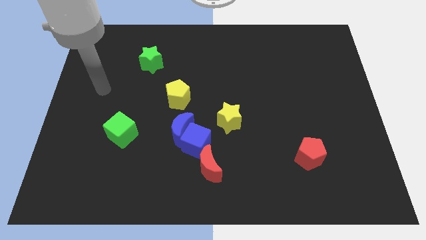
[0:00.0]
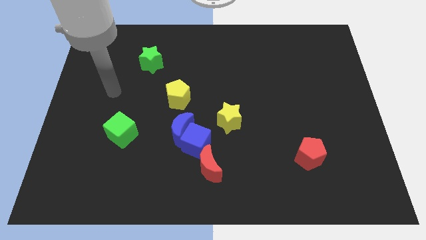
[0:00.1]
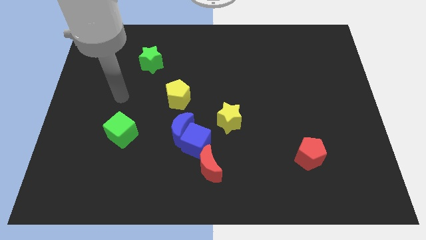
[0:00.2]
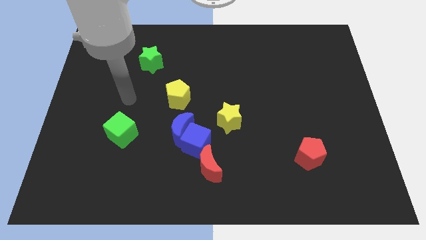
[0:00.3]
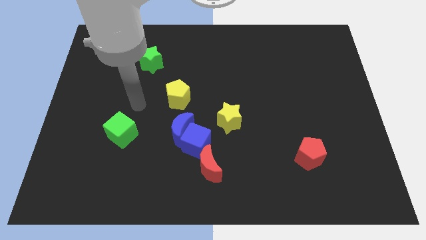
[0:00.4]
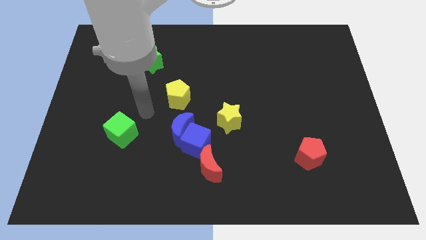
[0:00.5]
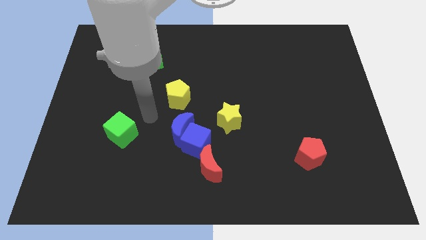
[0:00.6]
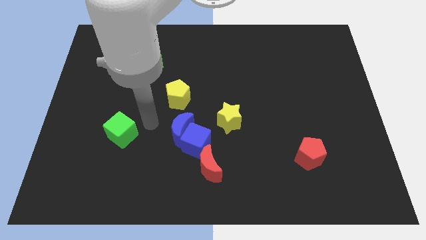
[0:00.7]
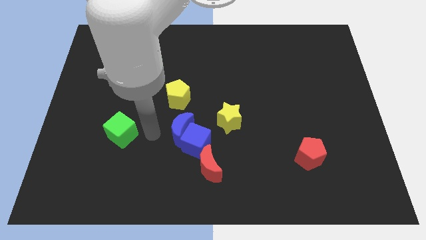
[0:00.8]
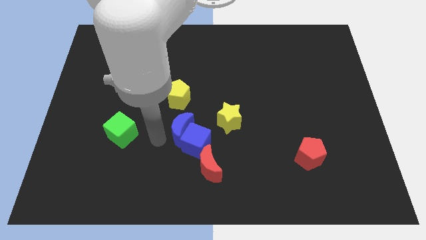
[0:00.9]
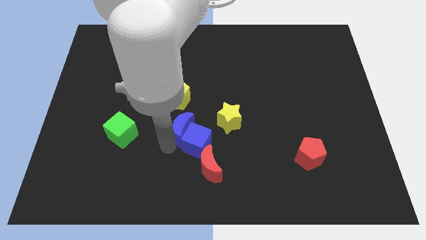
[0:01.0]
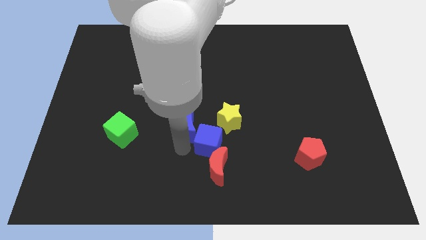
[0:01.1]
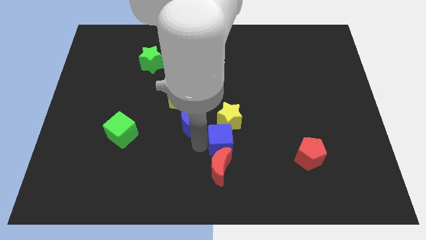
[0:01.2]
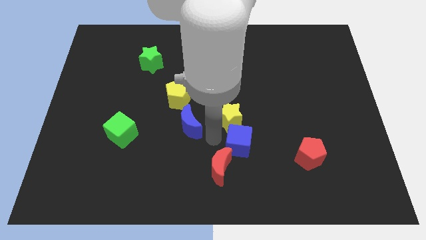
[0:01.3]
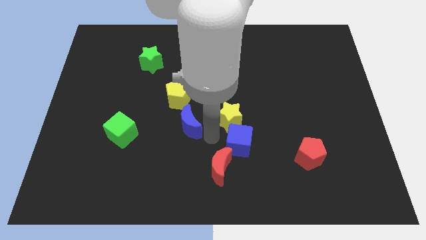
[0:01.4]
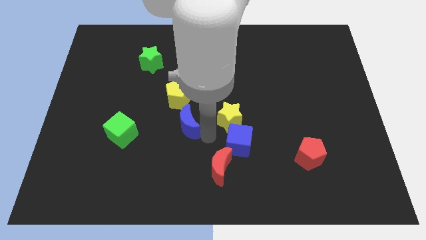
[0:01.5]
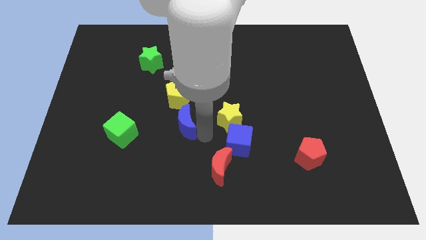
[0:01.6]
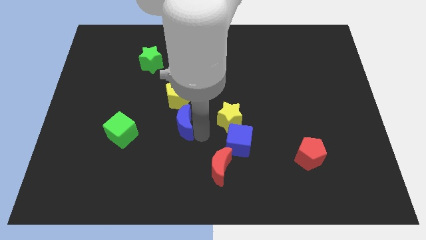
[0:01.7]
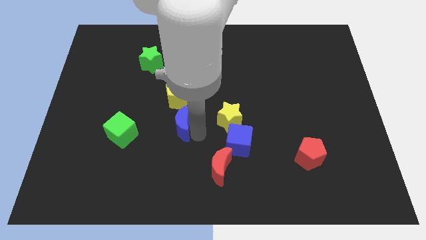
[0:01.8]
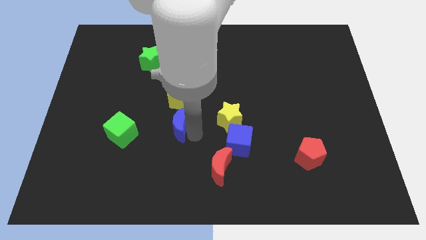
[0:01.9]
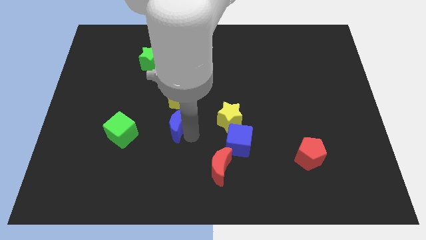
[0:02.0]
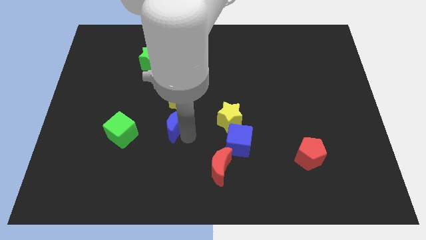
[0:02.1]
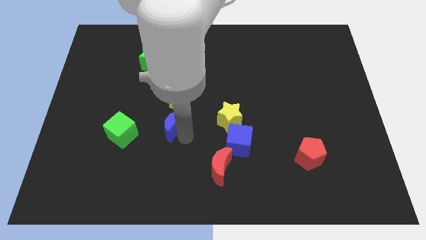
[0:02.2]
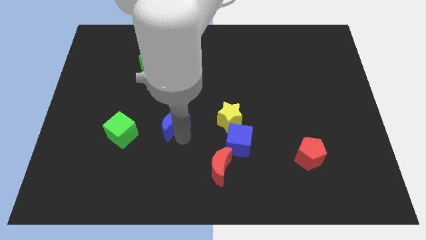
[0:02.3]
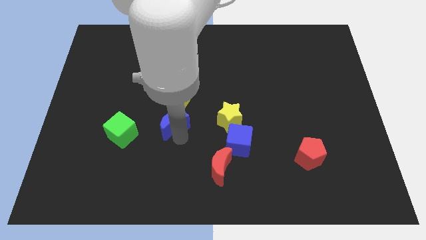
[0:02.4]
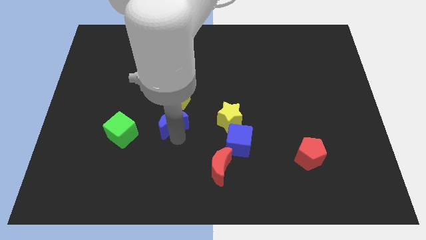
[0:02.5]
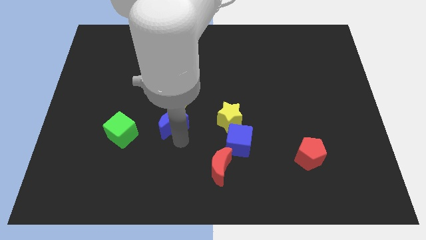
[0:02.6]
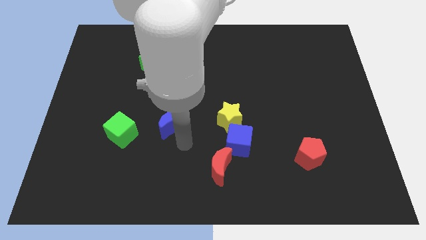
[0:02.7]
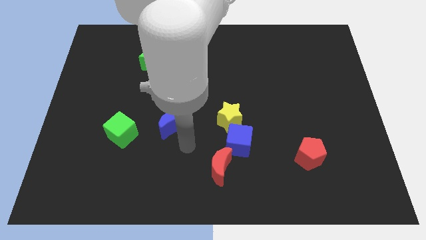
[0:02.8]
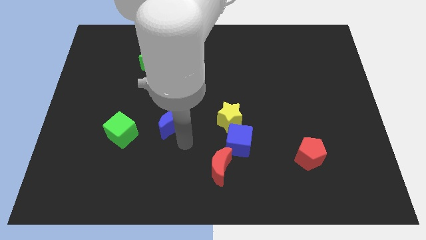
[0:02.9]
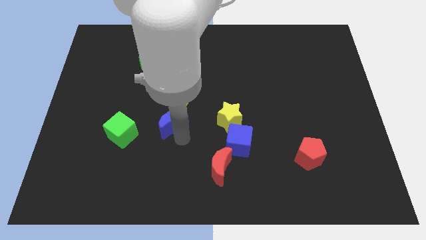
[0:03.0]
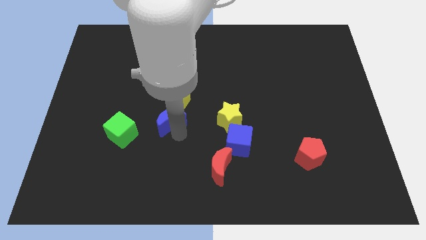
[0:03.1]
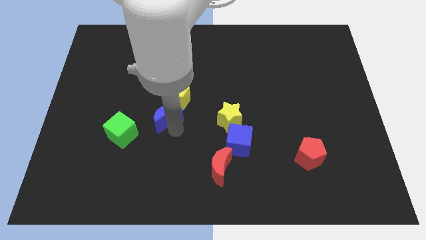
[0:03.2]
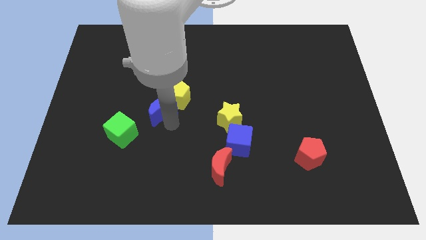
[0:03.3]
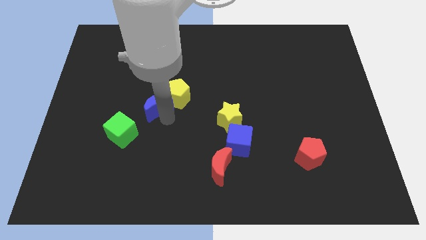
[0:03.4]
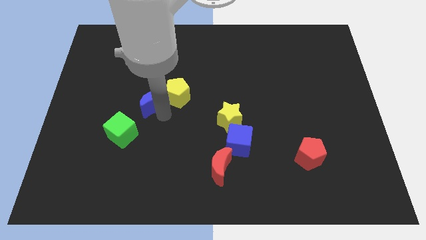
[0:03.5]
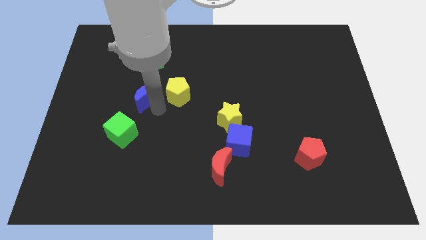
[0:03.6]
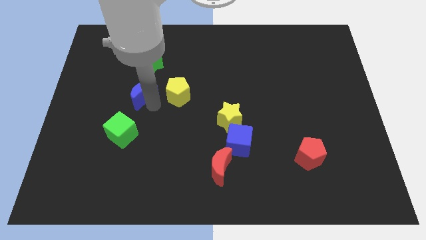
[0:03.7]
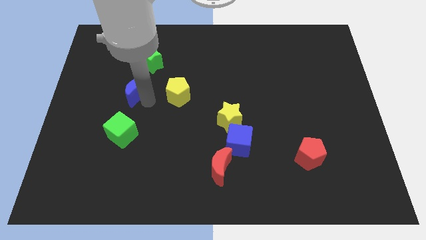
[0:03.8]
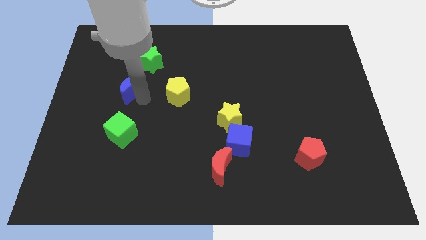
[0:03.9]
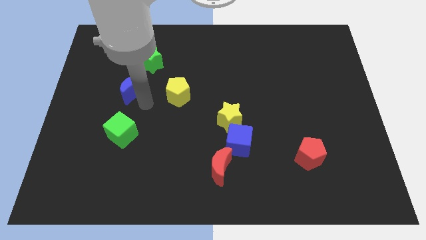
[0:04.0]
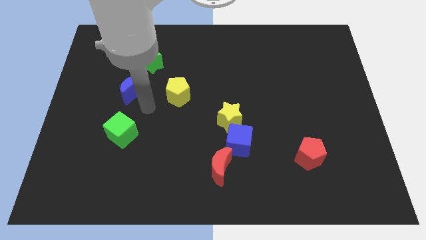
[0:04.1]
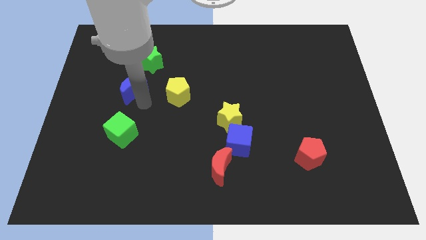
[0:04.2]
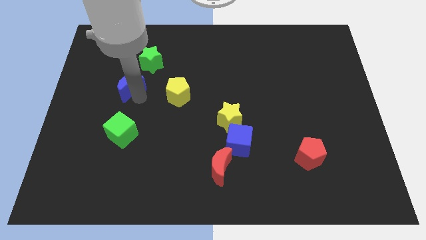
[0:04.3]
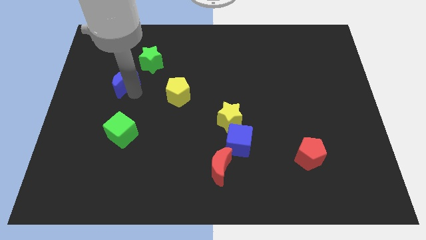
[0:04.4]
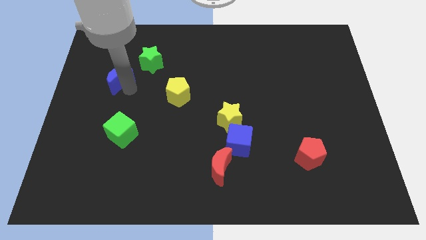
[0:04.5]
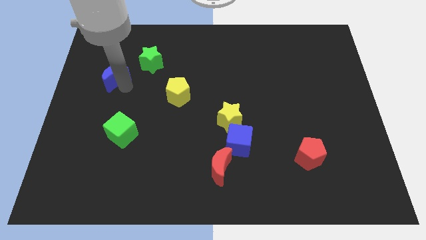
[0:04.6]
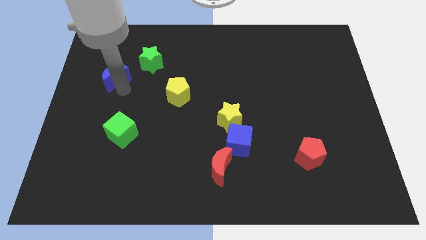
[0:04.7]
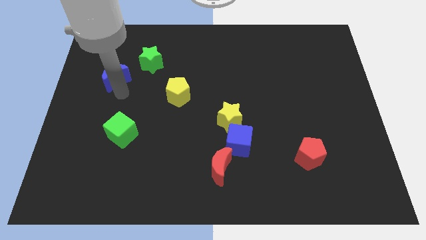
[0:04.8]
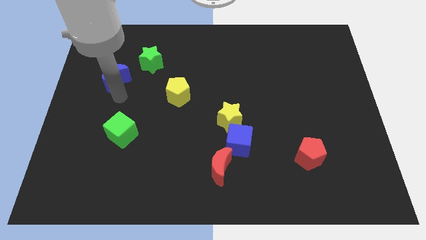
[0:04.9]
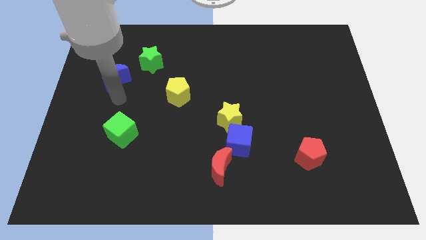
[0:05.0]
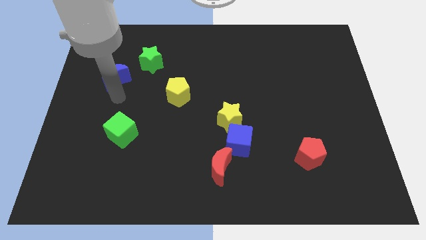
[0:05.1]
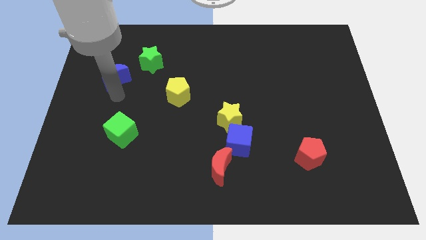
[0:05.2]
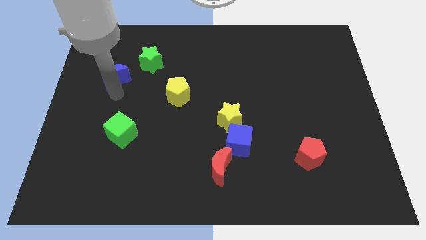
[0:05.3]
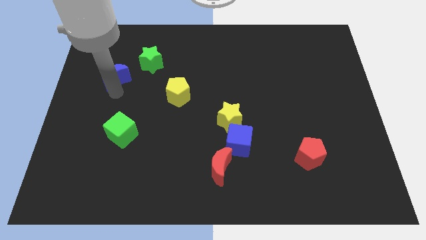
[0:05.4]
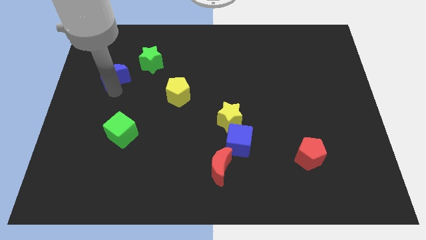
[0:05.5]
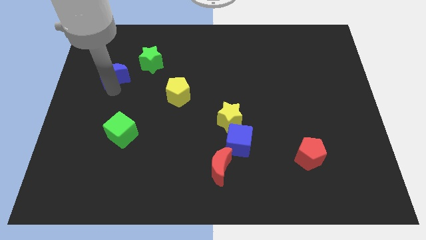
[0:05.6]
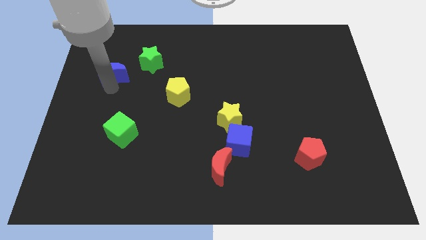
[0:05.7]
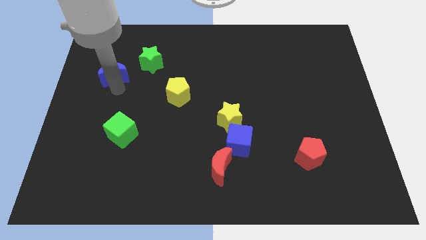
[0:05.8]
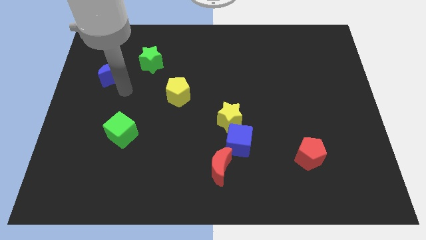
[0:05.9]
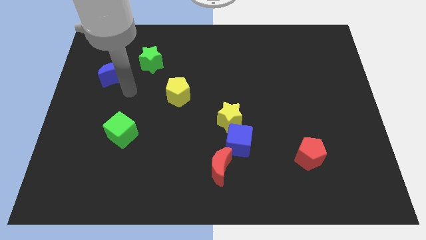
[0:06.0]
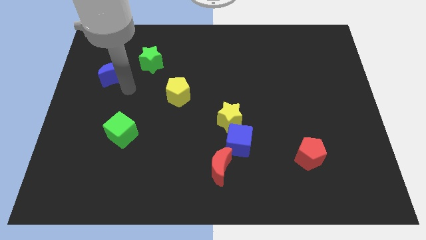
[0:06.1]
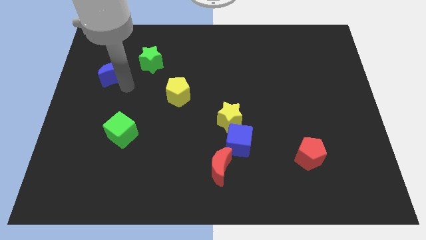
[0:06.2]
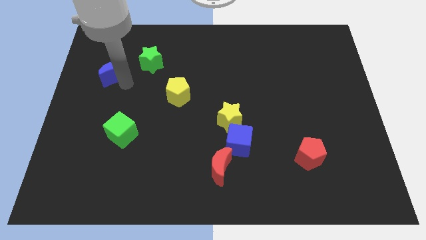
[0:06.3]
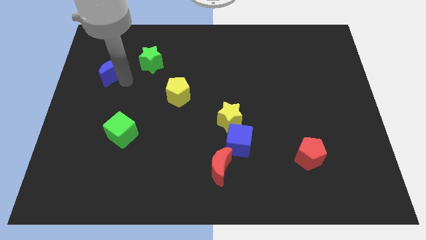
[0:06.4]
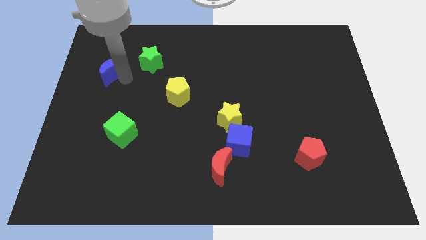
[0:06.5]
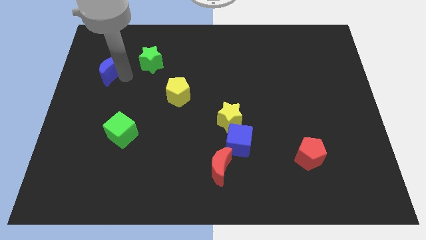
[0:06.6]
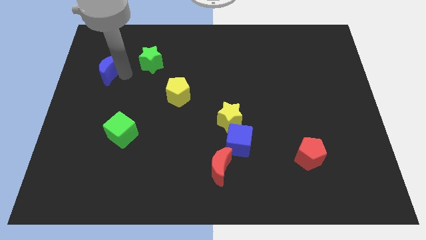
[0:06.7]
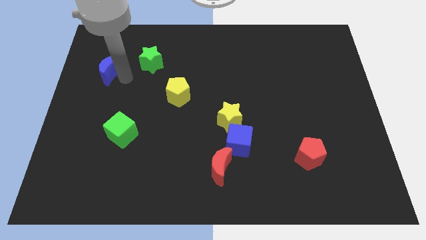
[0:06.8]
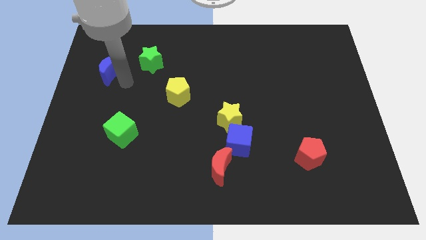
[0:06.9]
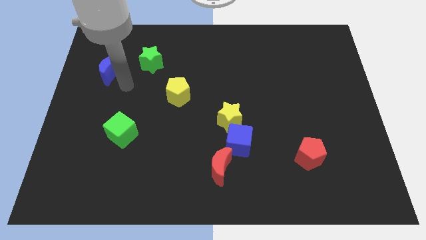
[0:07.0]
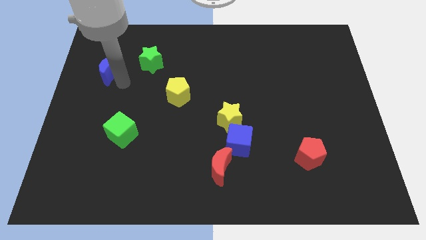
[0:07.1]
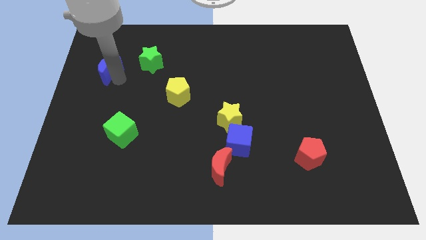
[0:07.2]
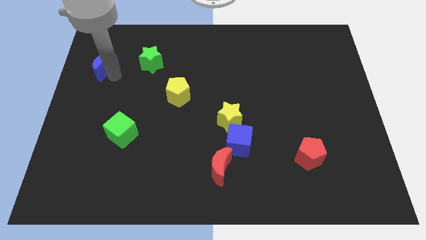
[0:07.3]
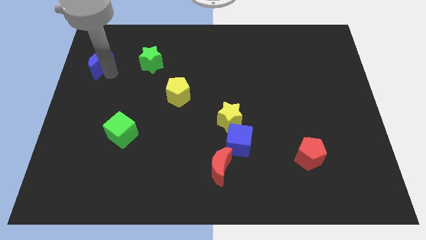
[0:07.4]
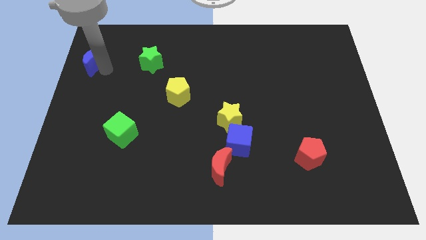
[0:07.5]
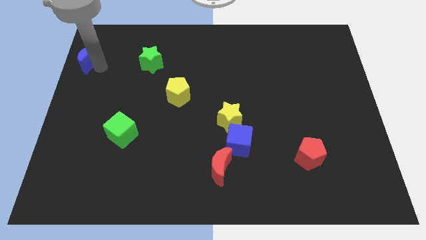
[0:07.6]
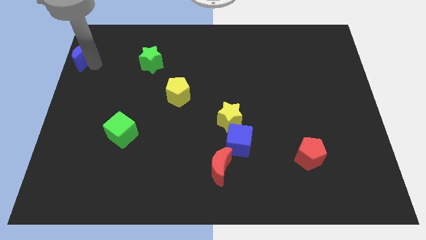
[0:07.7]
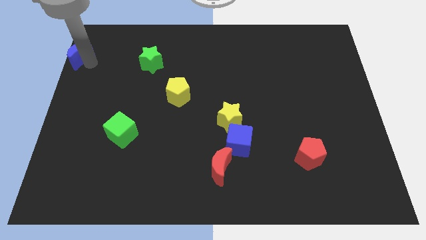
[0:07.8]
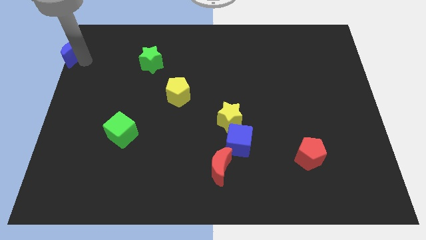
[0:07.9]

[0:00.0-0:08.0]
move the blue moon to the top left of the board
